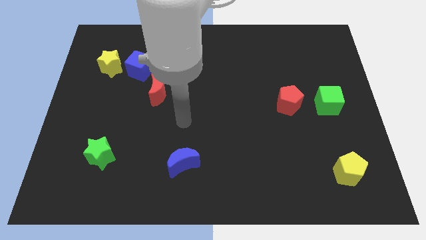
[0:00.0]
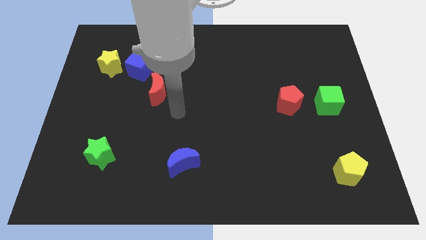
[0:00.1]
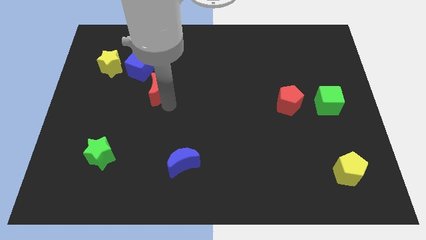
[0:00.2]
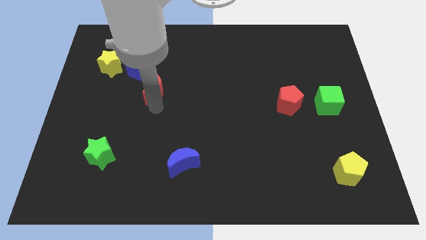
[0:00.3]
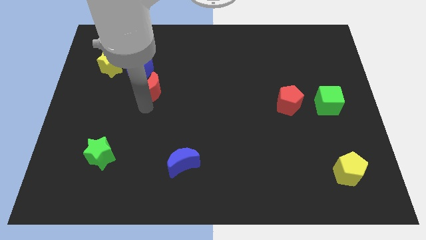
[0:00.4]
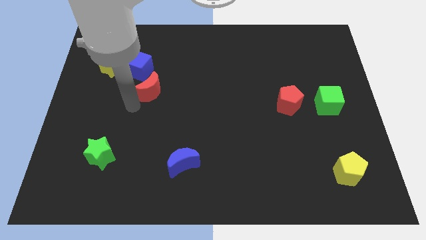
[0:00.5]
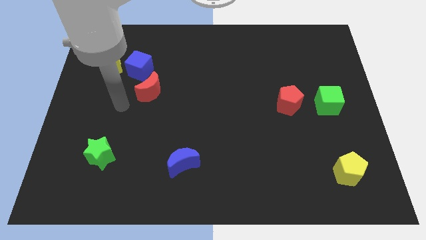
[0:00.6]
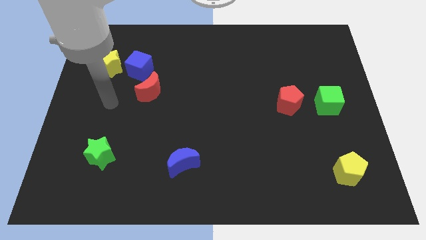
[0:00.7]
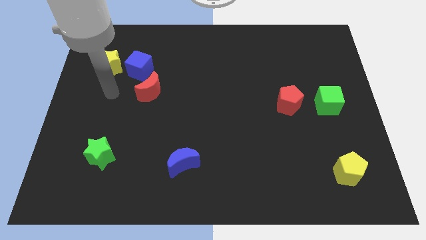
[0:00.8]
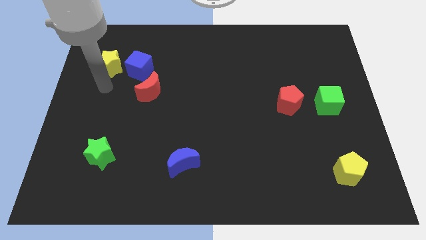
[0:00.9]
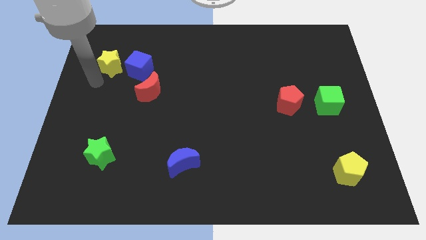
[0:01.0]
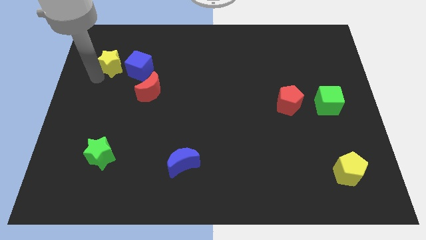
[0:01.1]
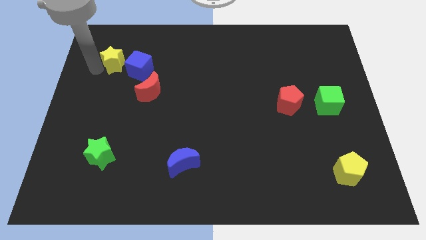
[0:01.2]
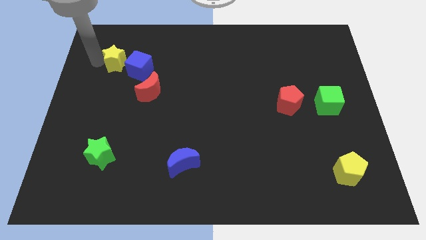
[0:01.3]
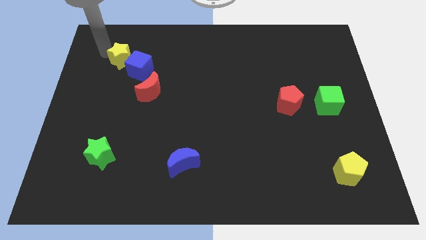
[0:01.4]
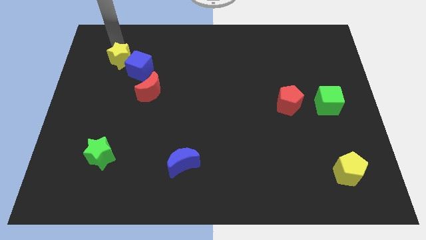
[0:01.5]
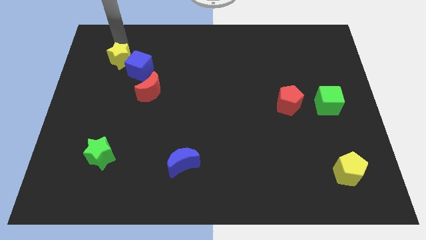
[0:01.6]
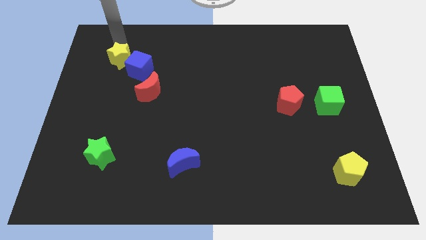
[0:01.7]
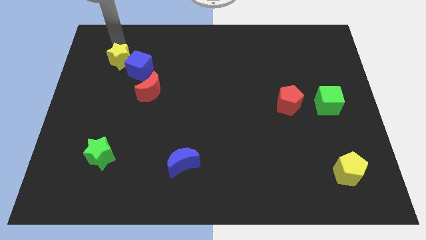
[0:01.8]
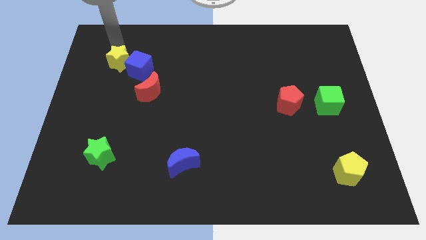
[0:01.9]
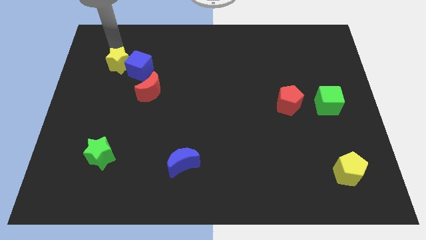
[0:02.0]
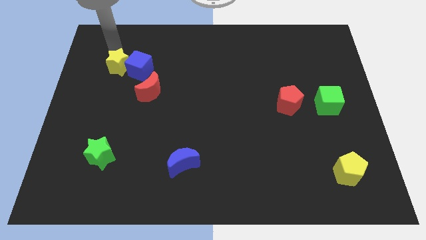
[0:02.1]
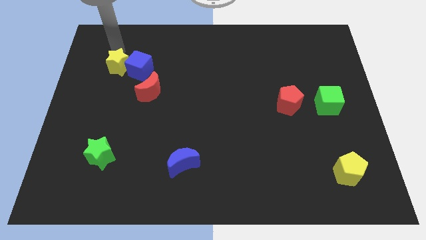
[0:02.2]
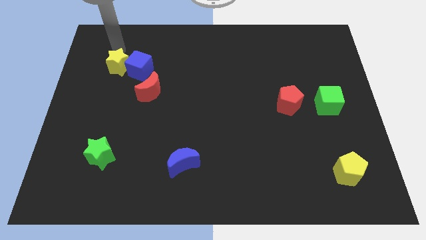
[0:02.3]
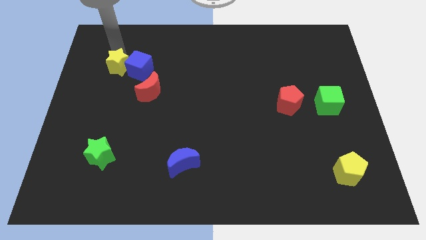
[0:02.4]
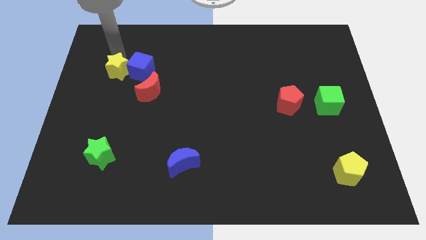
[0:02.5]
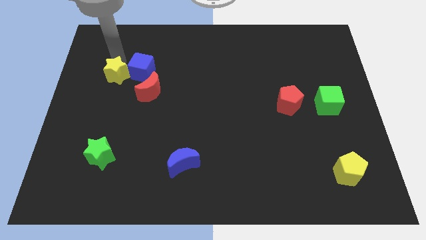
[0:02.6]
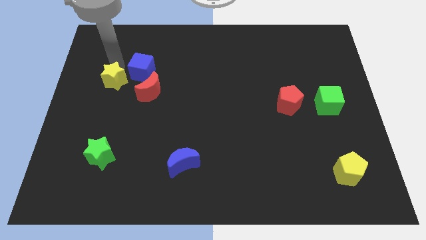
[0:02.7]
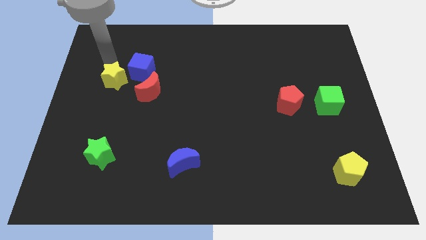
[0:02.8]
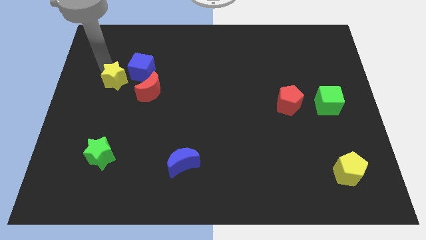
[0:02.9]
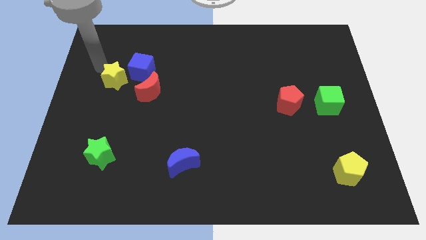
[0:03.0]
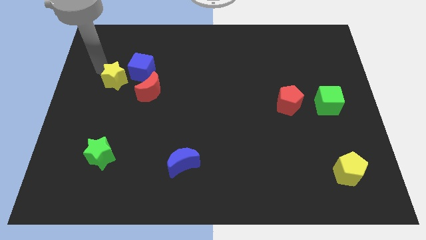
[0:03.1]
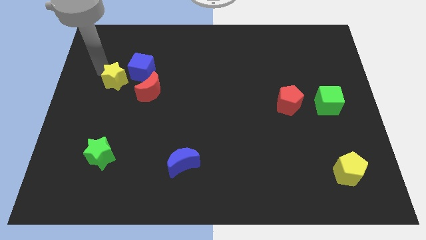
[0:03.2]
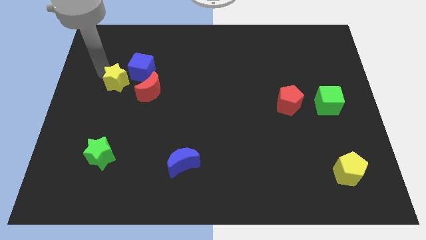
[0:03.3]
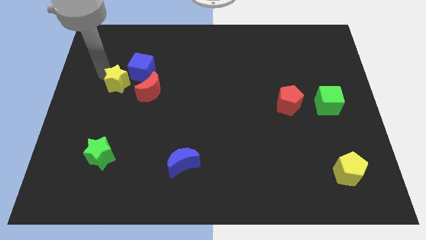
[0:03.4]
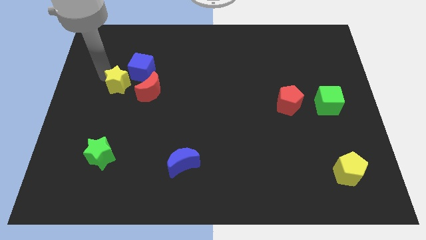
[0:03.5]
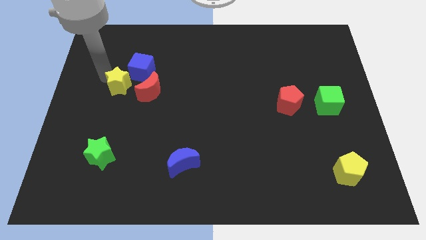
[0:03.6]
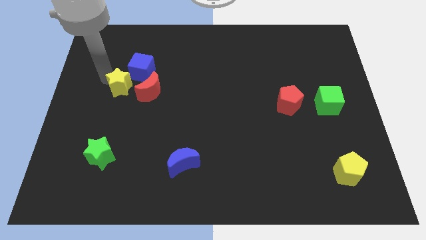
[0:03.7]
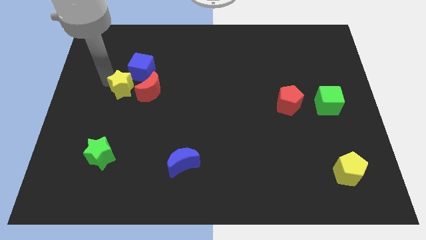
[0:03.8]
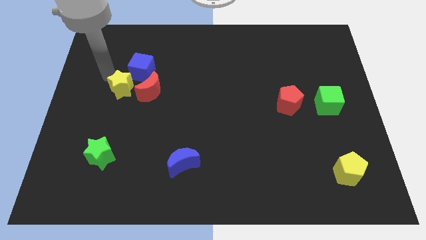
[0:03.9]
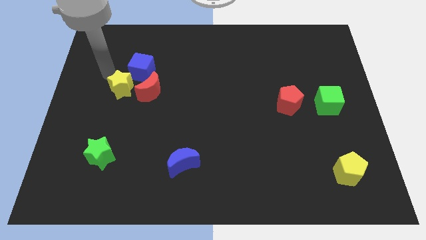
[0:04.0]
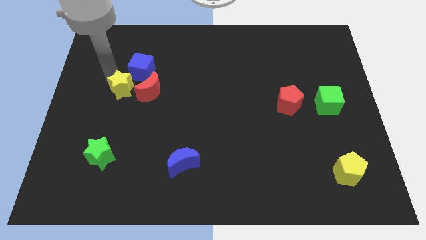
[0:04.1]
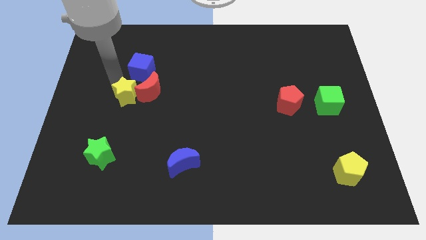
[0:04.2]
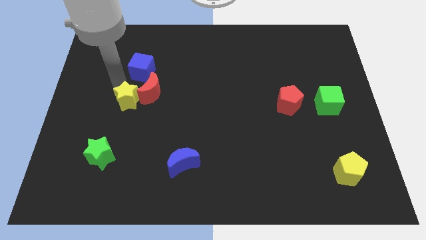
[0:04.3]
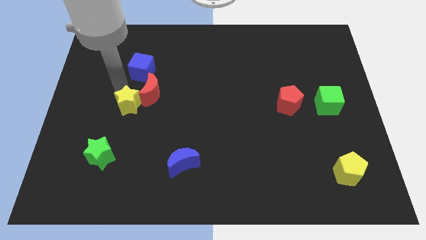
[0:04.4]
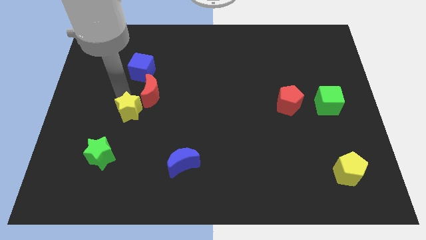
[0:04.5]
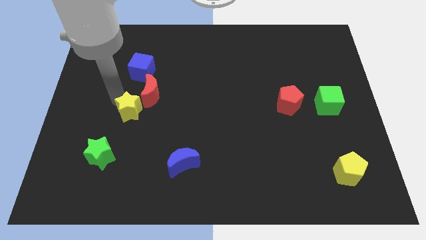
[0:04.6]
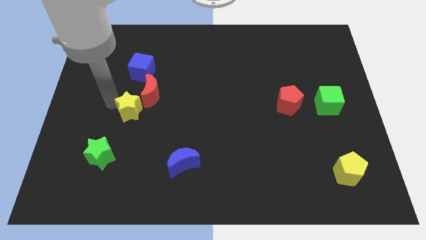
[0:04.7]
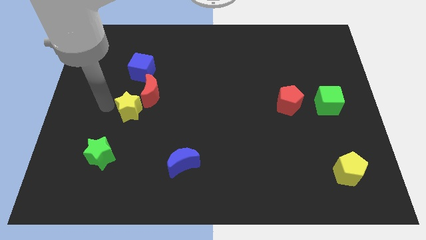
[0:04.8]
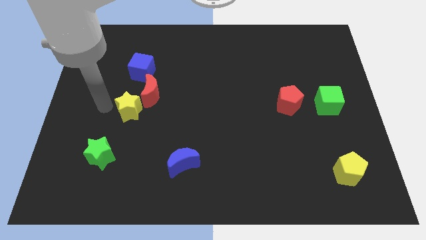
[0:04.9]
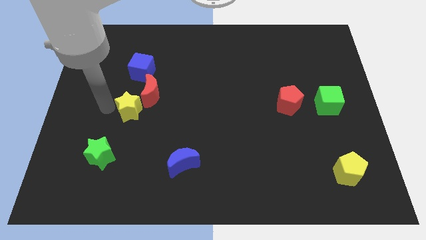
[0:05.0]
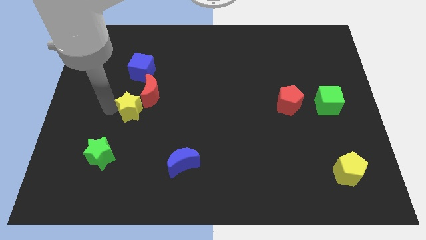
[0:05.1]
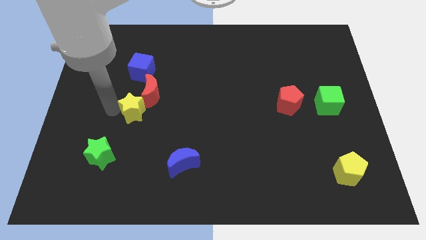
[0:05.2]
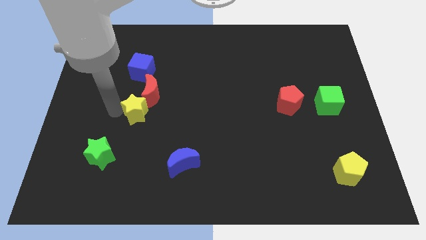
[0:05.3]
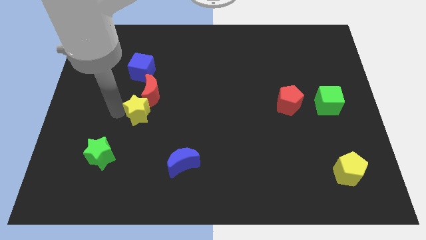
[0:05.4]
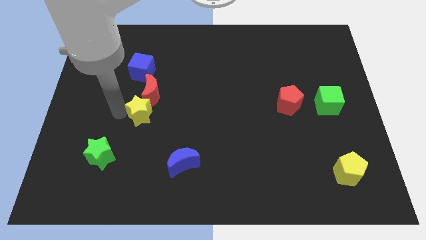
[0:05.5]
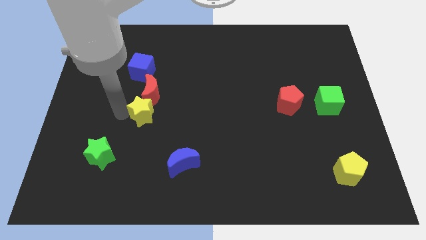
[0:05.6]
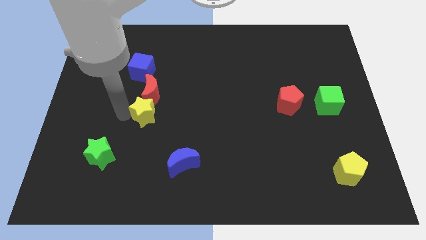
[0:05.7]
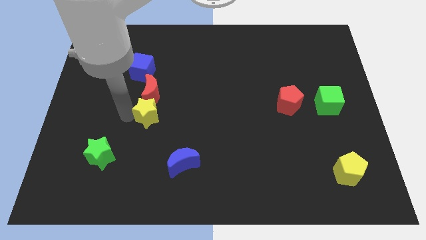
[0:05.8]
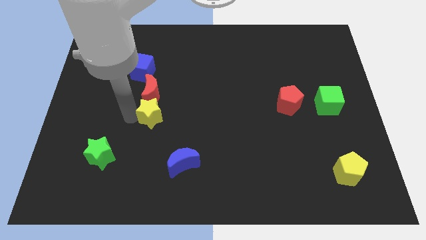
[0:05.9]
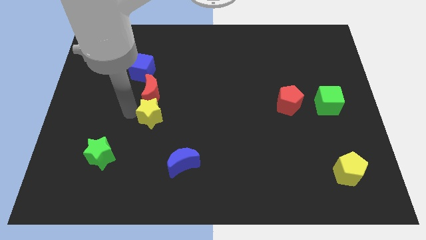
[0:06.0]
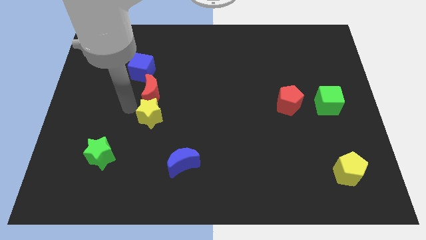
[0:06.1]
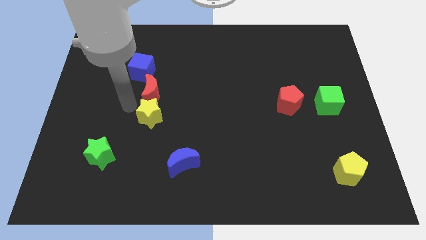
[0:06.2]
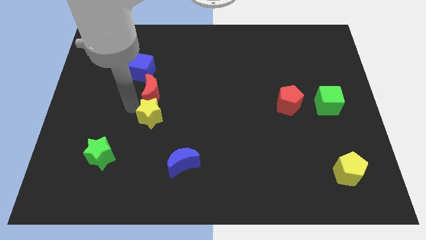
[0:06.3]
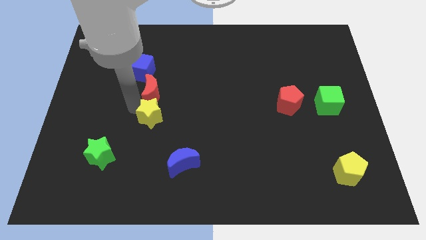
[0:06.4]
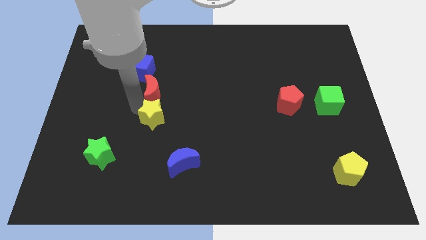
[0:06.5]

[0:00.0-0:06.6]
slide the yellow star downwards and to the right

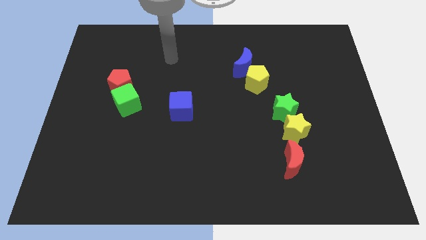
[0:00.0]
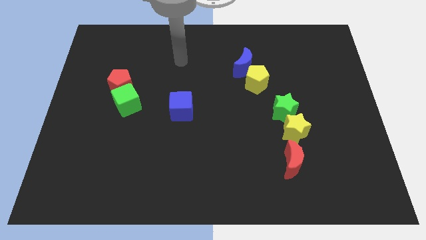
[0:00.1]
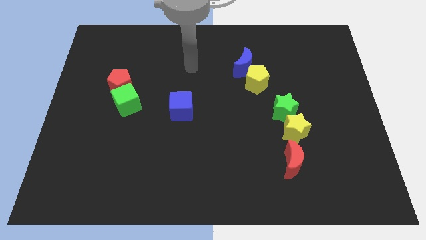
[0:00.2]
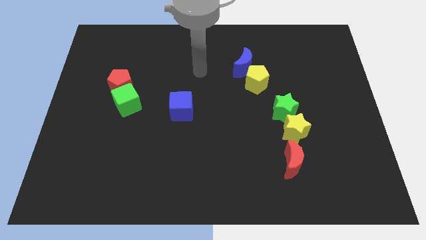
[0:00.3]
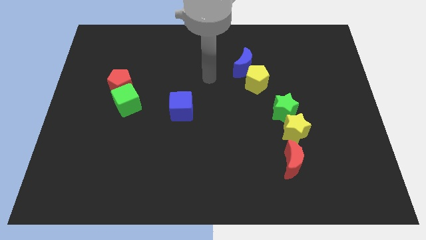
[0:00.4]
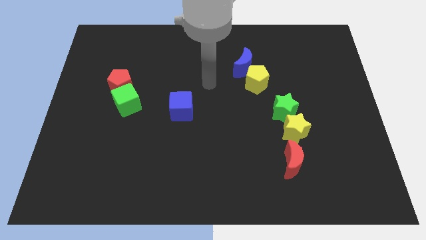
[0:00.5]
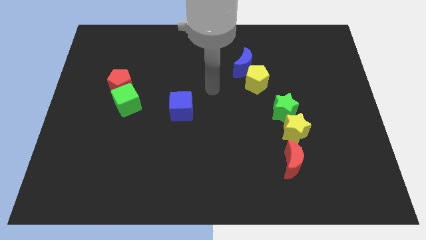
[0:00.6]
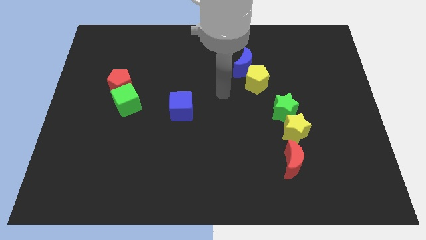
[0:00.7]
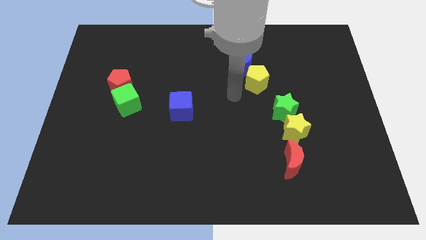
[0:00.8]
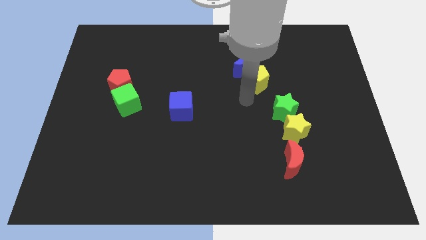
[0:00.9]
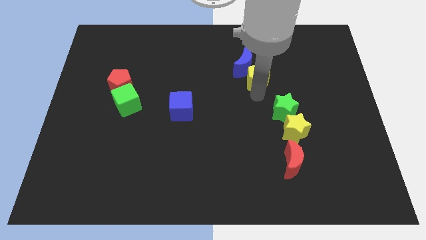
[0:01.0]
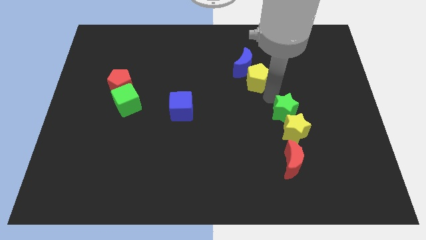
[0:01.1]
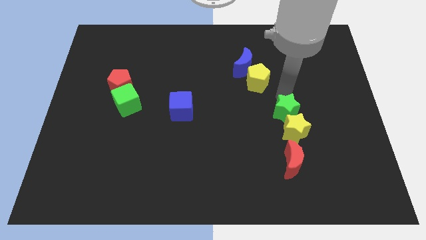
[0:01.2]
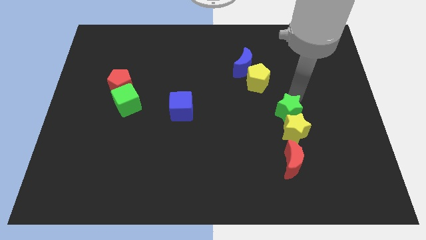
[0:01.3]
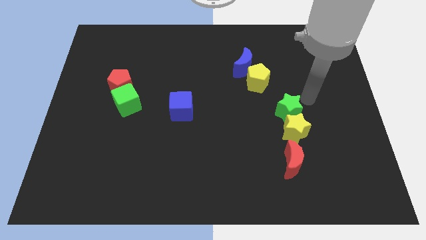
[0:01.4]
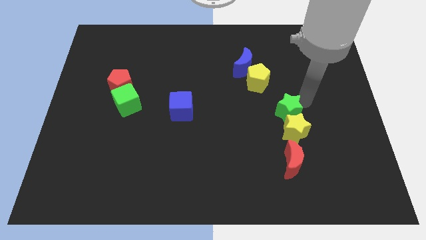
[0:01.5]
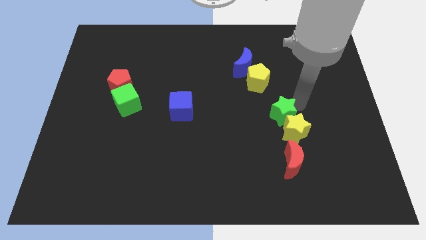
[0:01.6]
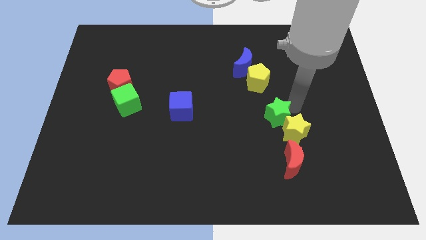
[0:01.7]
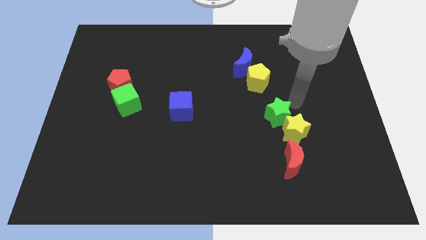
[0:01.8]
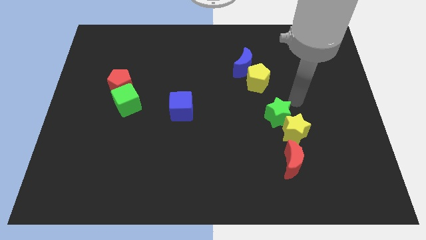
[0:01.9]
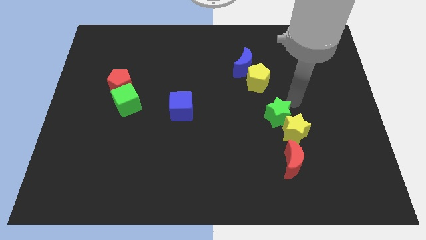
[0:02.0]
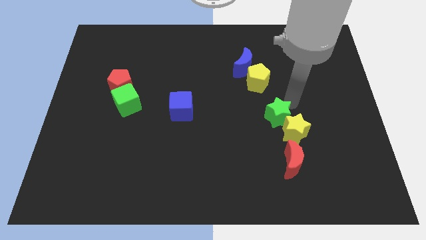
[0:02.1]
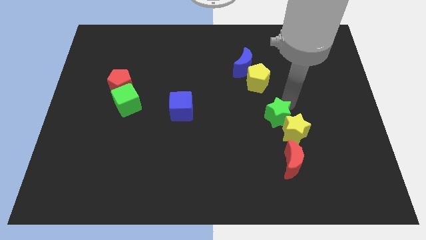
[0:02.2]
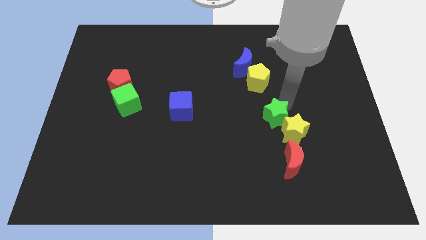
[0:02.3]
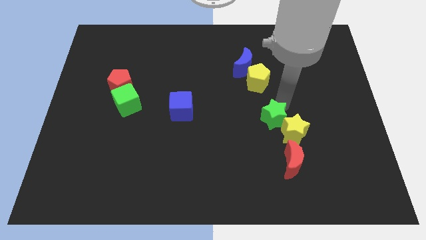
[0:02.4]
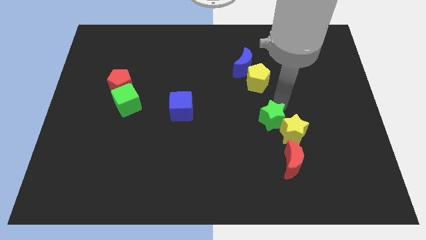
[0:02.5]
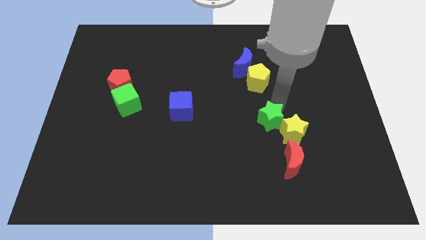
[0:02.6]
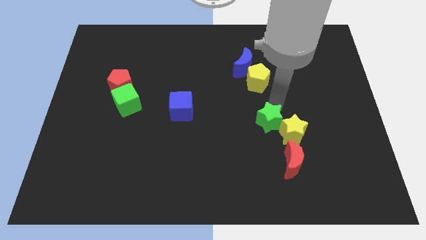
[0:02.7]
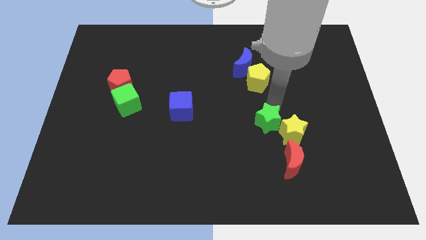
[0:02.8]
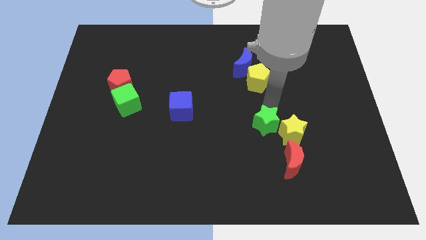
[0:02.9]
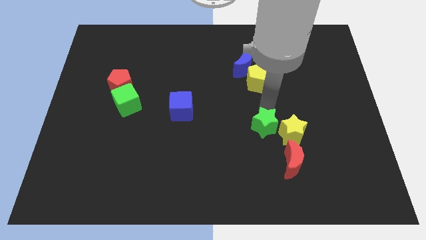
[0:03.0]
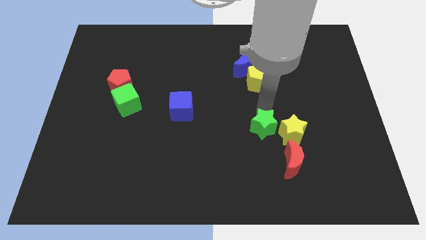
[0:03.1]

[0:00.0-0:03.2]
slightly move the green star down and to the left
